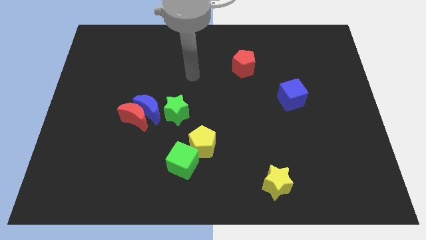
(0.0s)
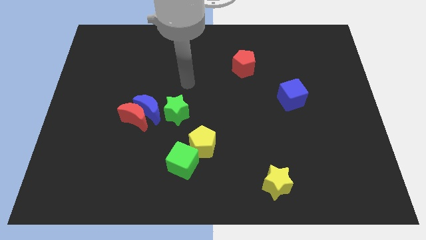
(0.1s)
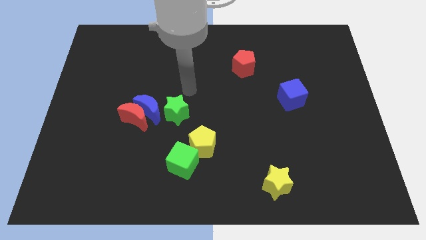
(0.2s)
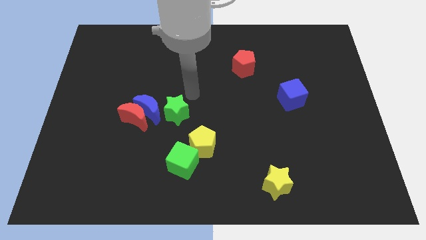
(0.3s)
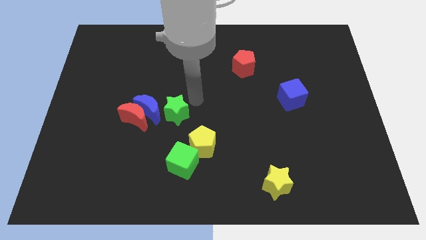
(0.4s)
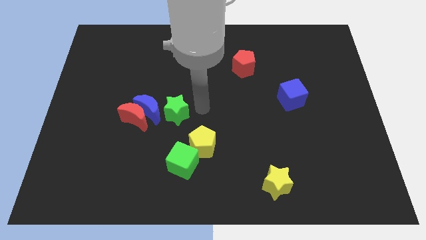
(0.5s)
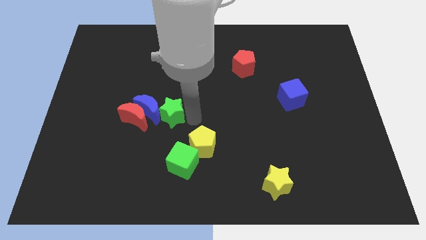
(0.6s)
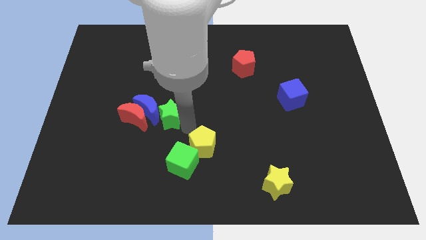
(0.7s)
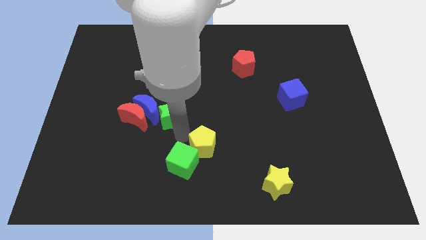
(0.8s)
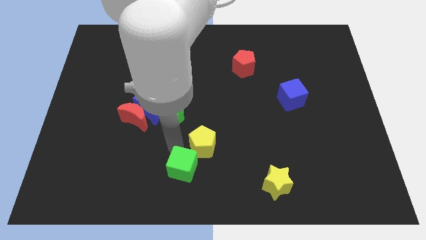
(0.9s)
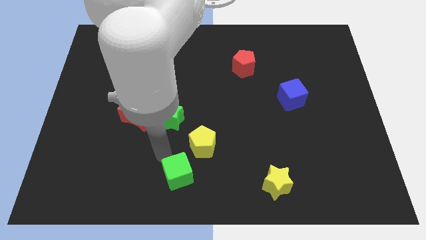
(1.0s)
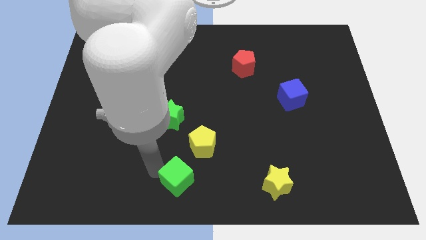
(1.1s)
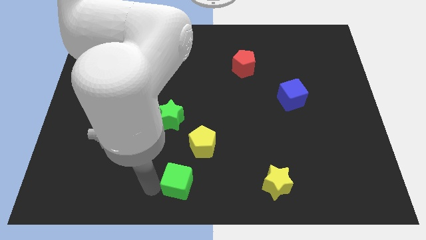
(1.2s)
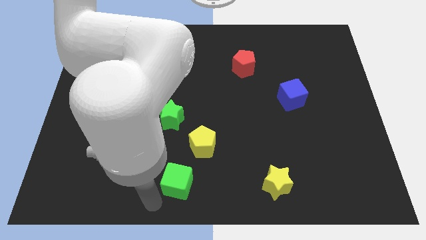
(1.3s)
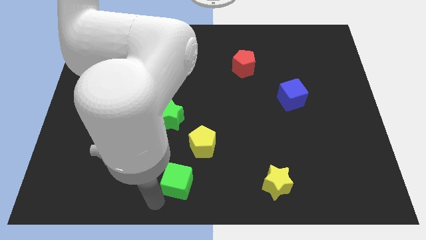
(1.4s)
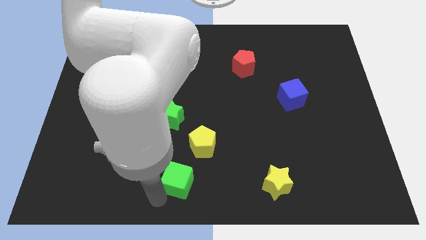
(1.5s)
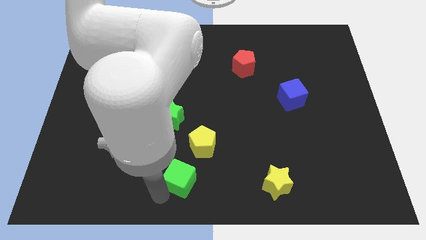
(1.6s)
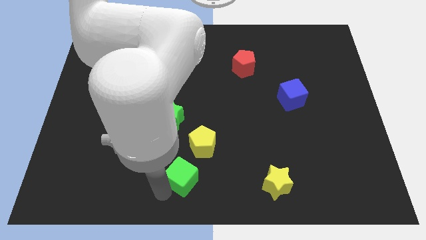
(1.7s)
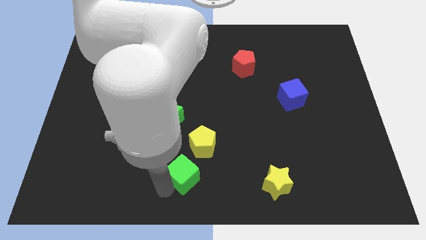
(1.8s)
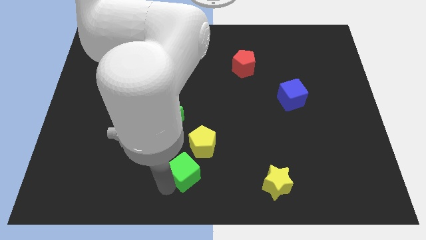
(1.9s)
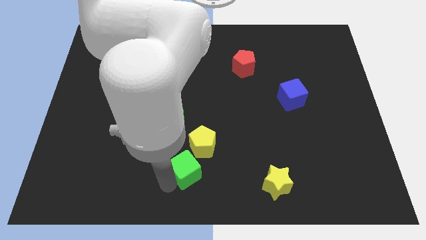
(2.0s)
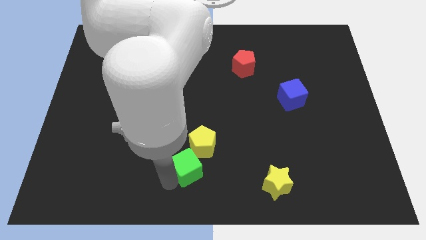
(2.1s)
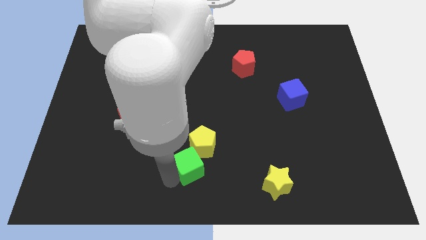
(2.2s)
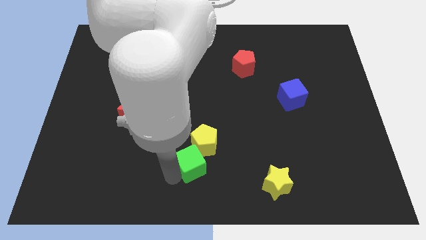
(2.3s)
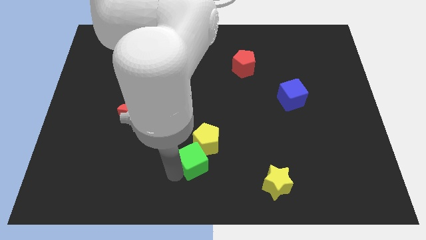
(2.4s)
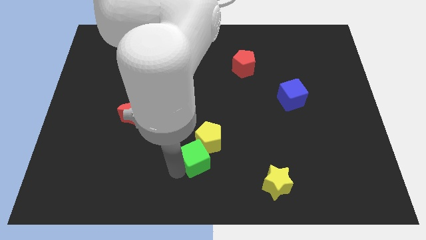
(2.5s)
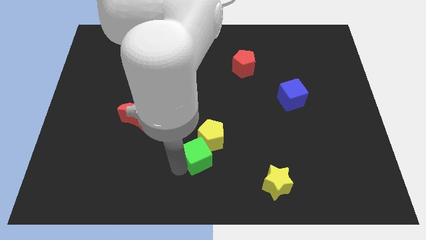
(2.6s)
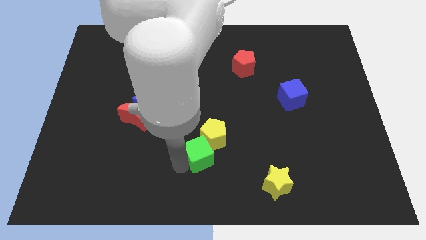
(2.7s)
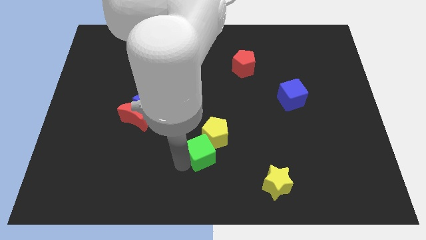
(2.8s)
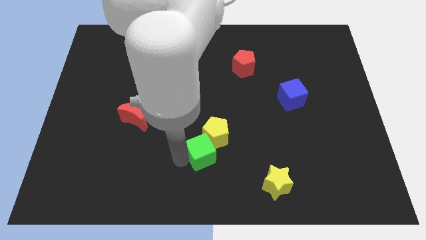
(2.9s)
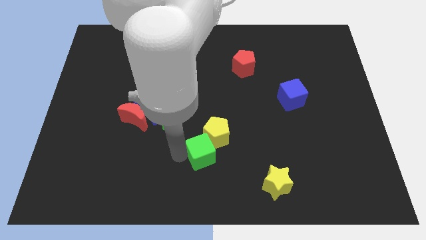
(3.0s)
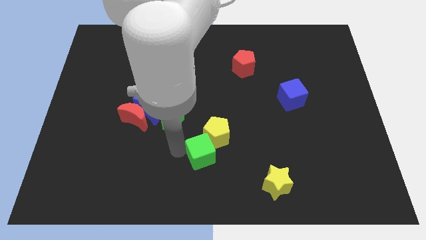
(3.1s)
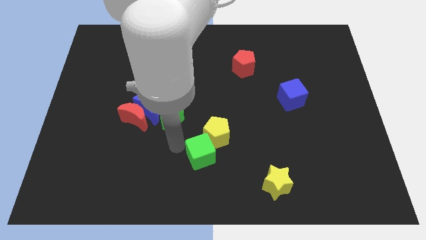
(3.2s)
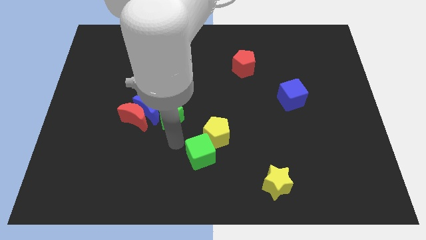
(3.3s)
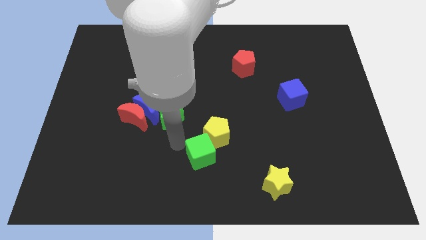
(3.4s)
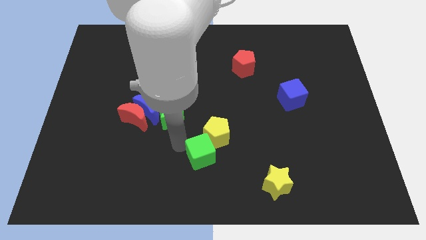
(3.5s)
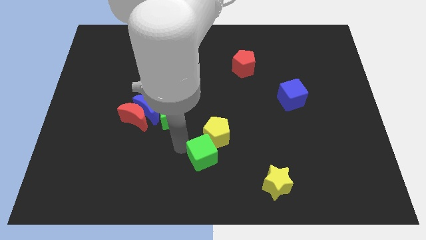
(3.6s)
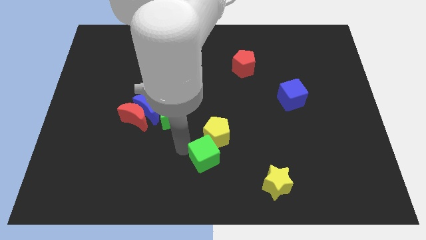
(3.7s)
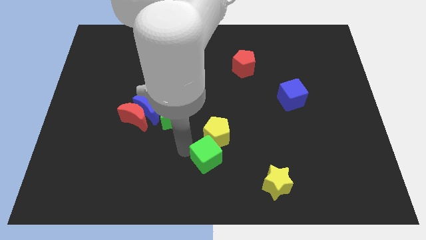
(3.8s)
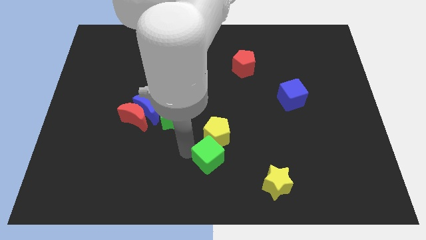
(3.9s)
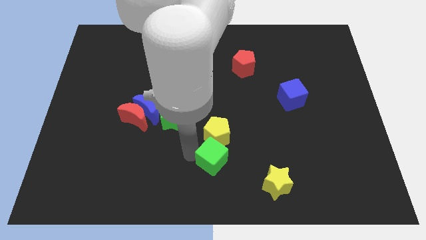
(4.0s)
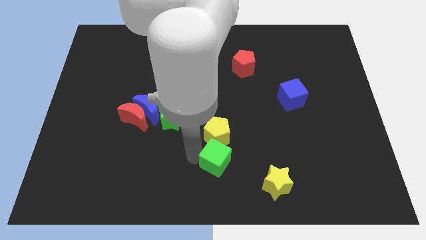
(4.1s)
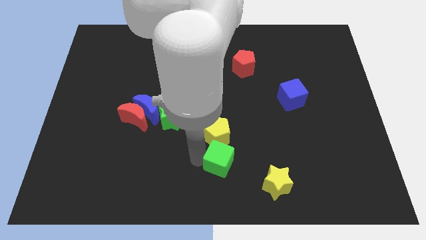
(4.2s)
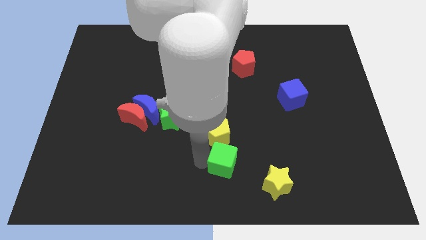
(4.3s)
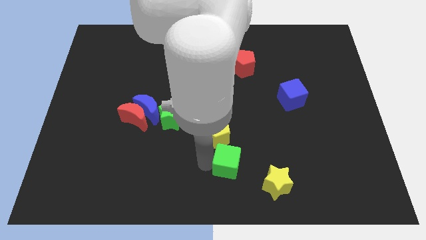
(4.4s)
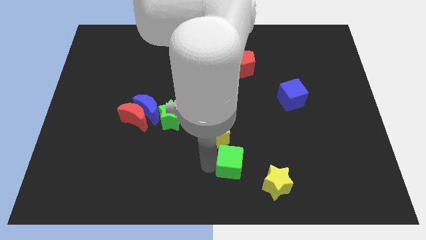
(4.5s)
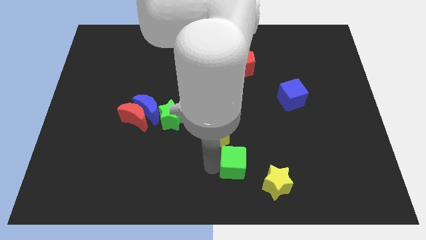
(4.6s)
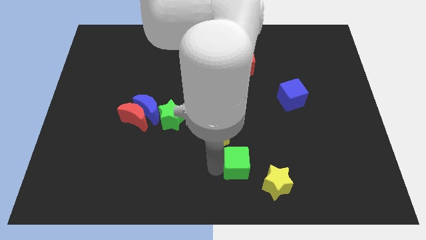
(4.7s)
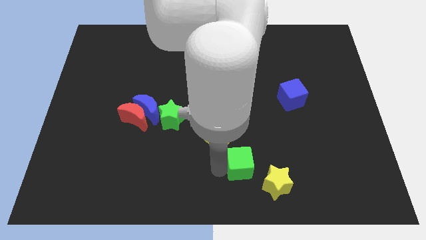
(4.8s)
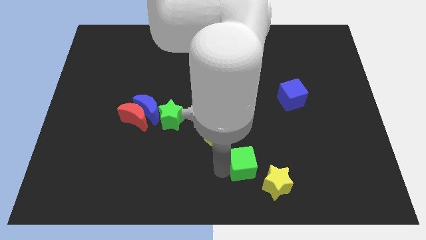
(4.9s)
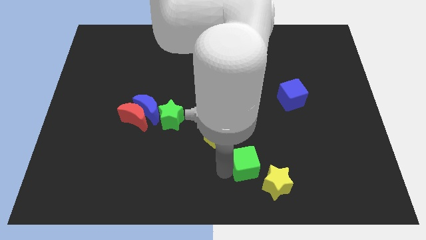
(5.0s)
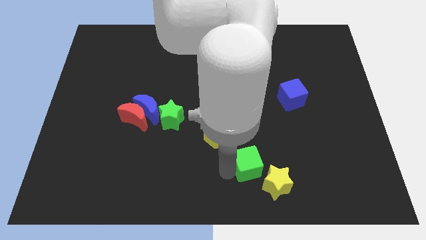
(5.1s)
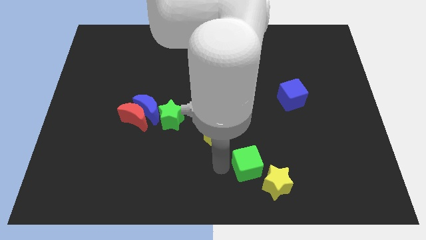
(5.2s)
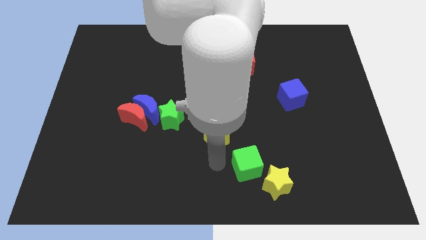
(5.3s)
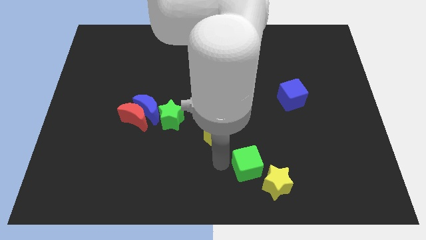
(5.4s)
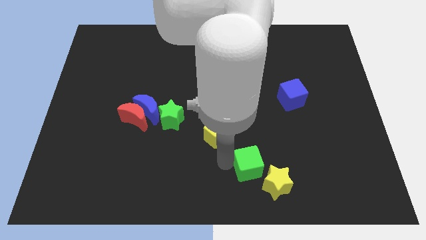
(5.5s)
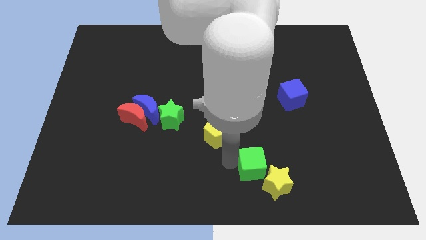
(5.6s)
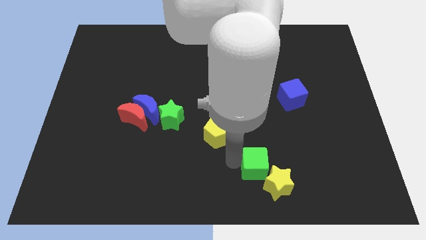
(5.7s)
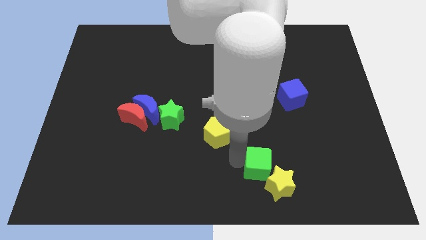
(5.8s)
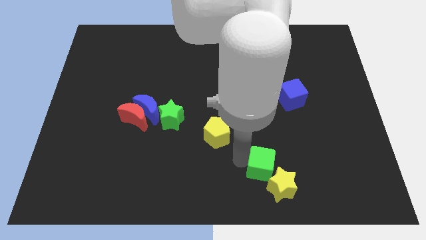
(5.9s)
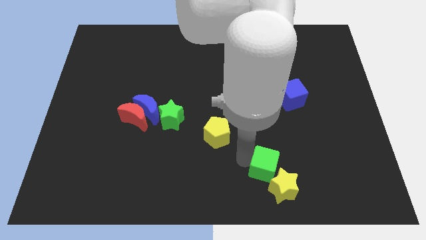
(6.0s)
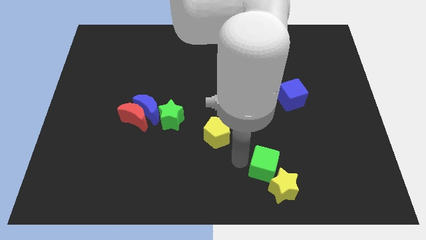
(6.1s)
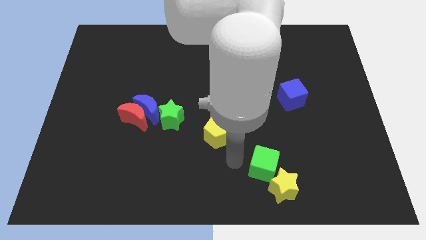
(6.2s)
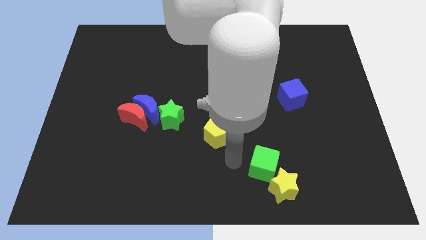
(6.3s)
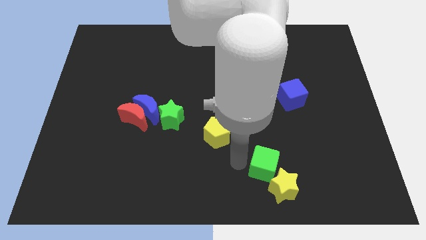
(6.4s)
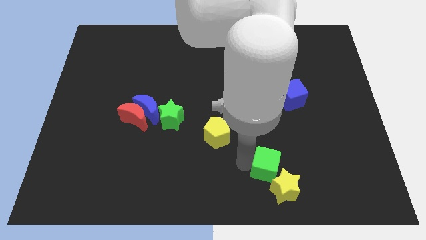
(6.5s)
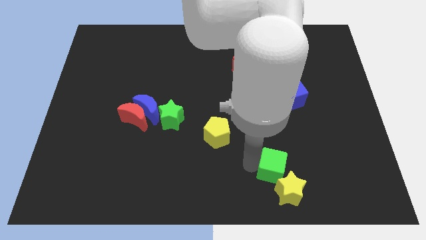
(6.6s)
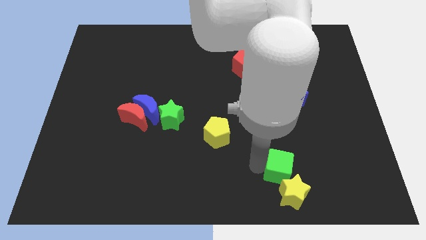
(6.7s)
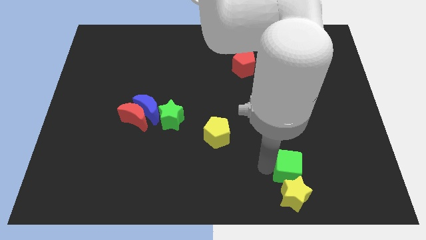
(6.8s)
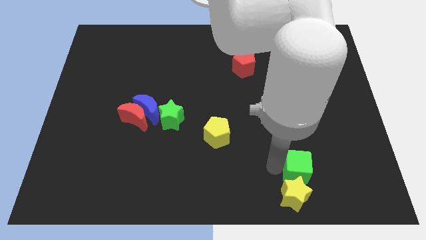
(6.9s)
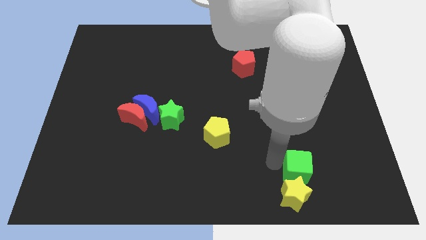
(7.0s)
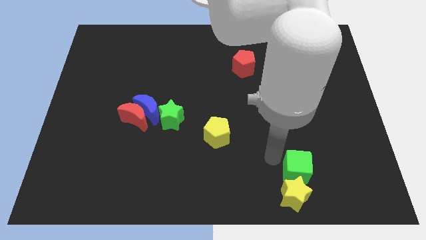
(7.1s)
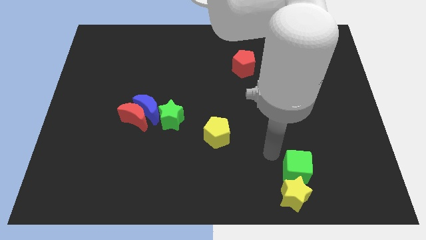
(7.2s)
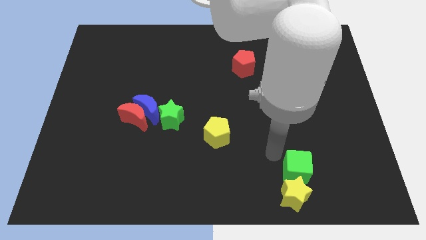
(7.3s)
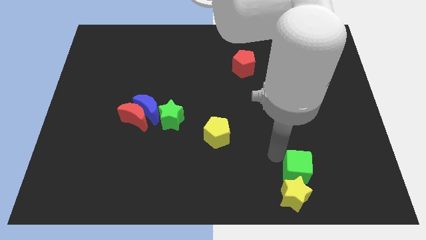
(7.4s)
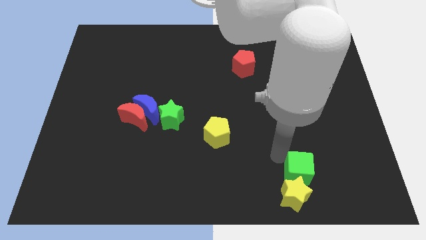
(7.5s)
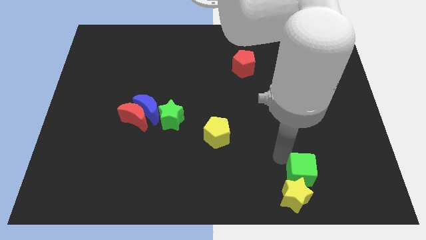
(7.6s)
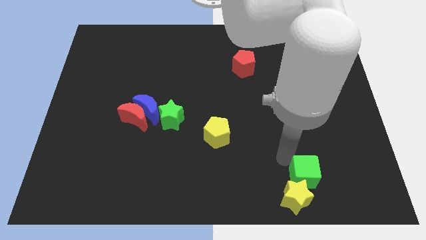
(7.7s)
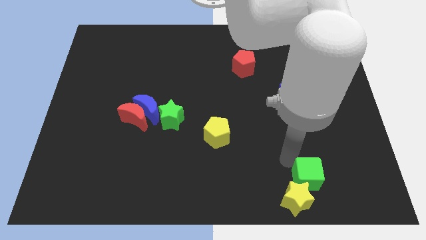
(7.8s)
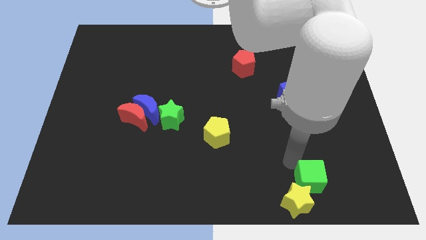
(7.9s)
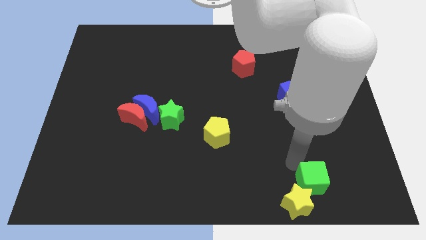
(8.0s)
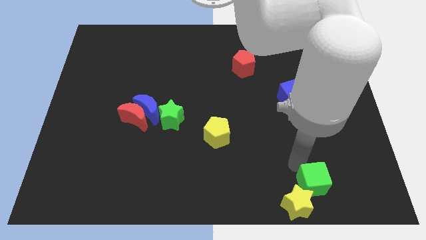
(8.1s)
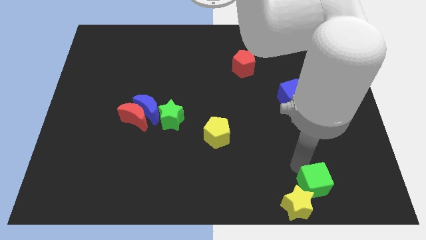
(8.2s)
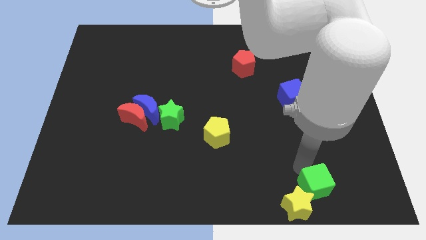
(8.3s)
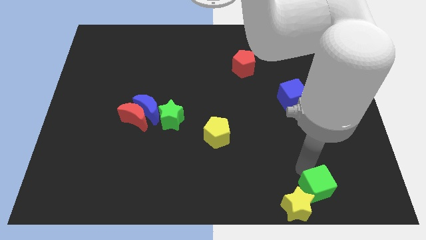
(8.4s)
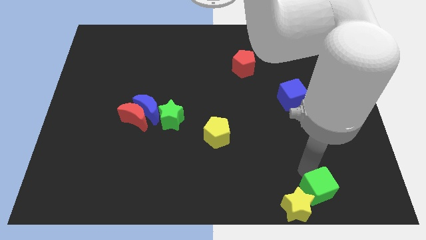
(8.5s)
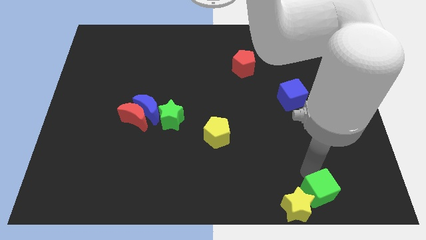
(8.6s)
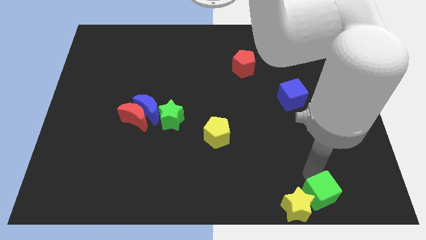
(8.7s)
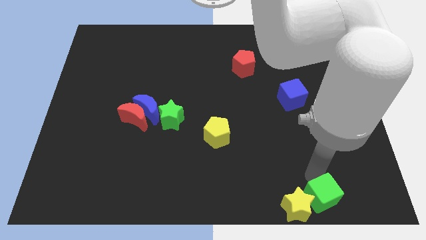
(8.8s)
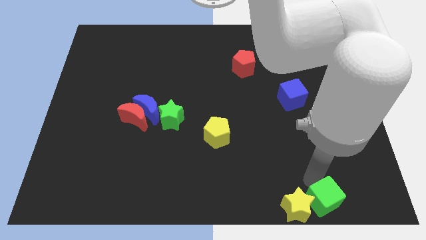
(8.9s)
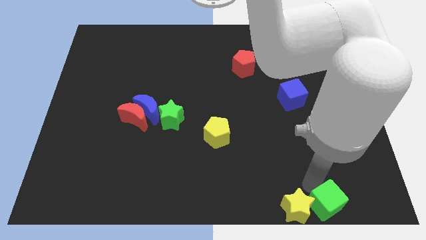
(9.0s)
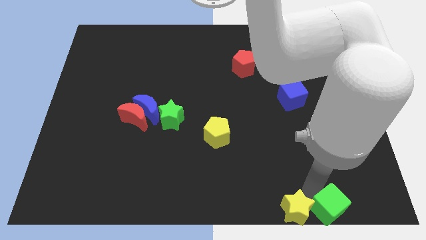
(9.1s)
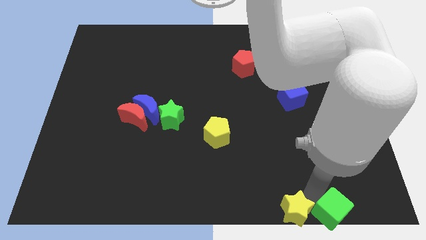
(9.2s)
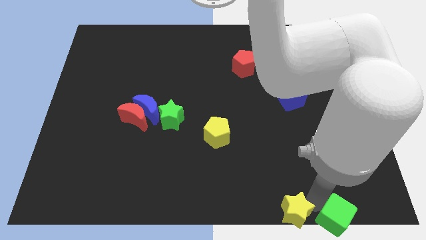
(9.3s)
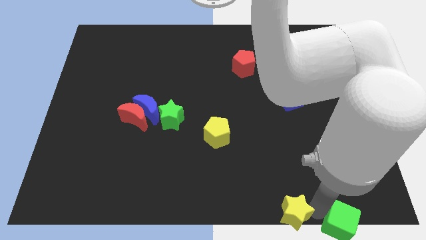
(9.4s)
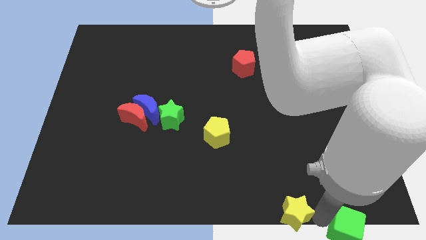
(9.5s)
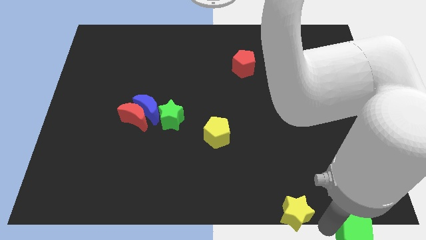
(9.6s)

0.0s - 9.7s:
put the green cube to the bottom right corner
